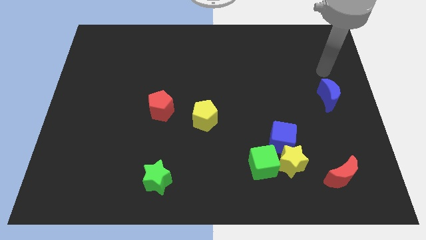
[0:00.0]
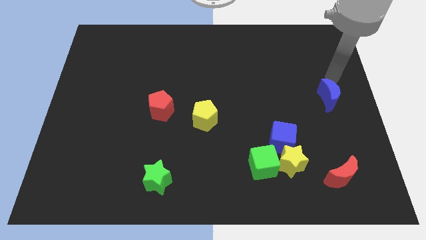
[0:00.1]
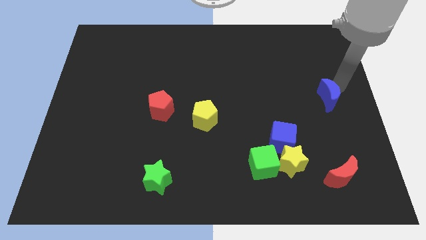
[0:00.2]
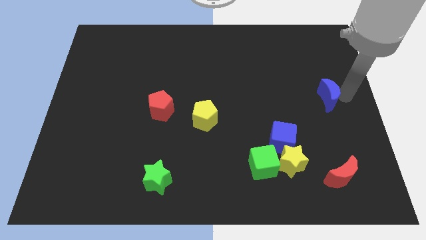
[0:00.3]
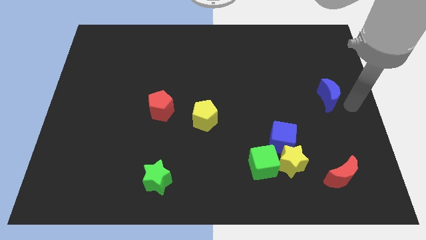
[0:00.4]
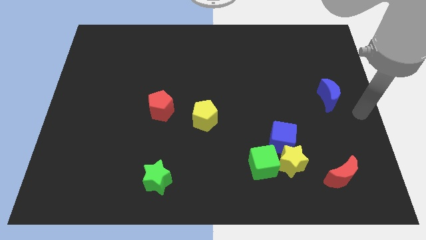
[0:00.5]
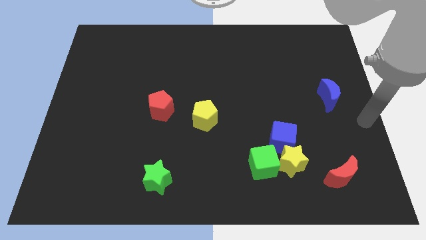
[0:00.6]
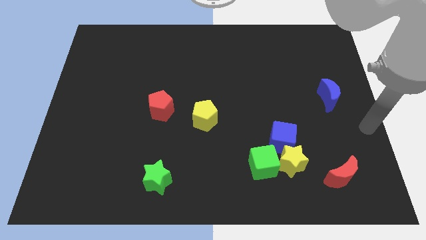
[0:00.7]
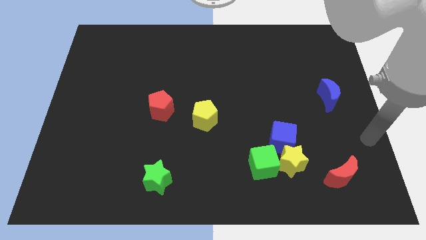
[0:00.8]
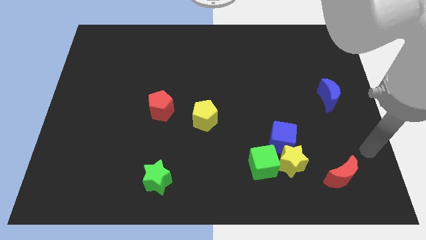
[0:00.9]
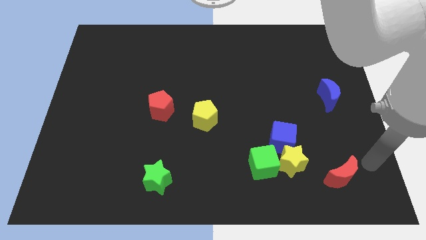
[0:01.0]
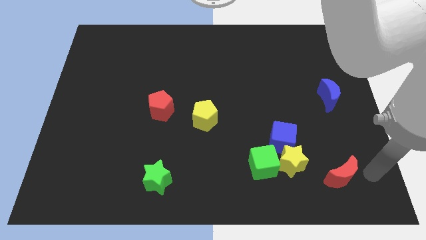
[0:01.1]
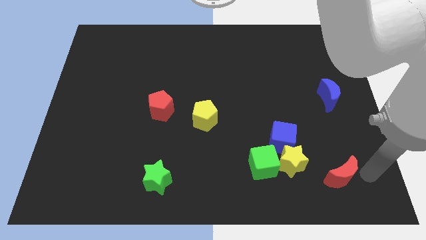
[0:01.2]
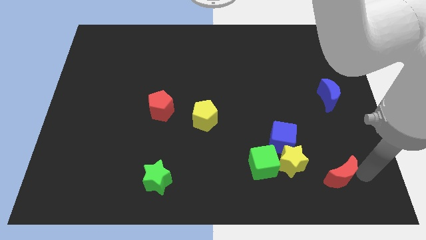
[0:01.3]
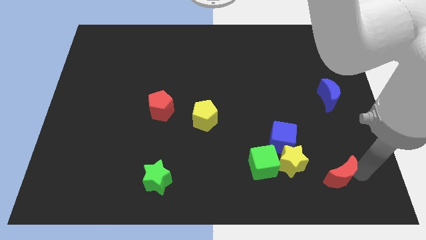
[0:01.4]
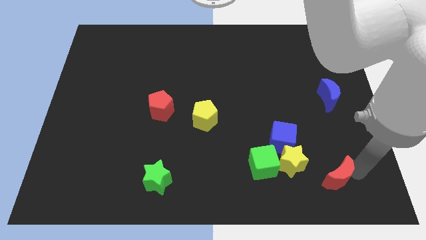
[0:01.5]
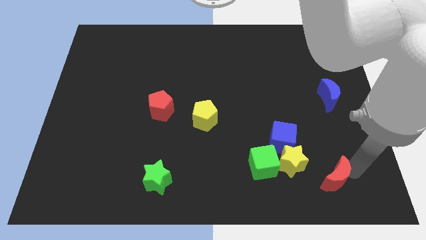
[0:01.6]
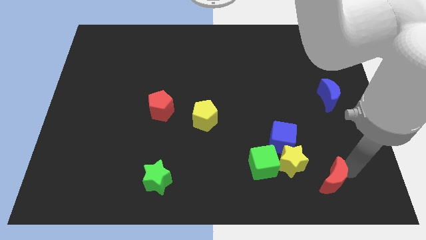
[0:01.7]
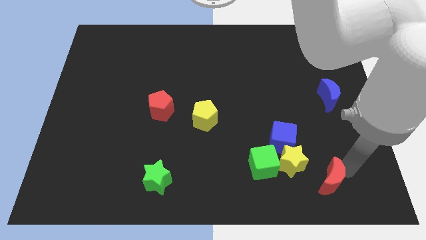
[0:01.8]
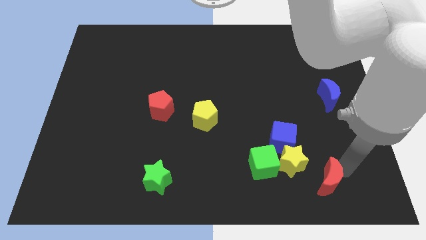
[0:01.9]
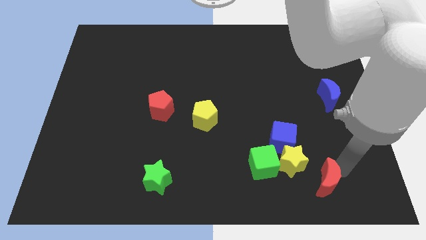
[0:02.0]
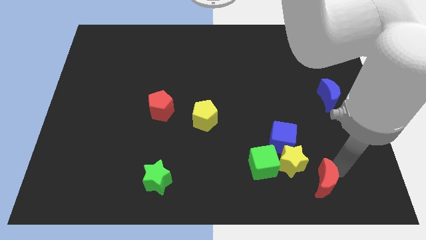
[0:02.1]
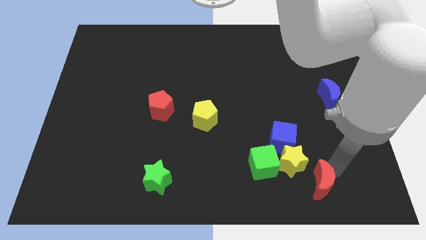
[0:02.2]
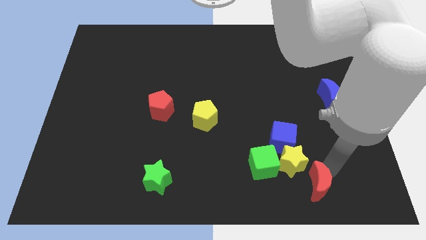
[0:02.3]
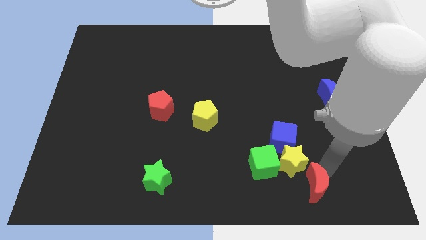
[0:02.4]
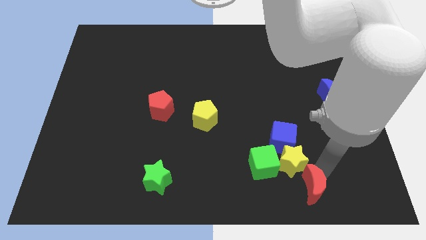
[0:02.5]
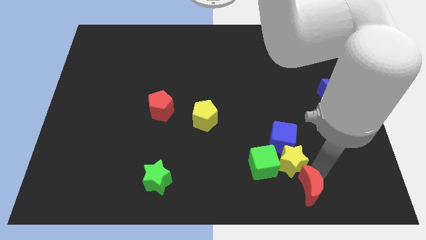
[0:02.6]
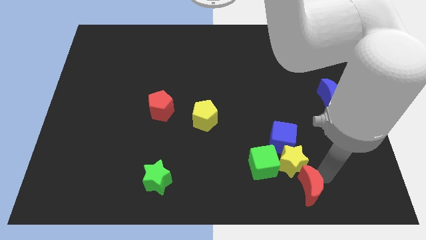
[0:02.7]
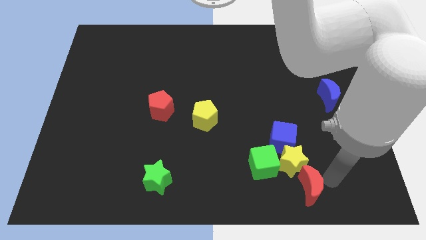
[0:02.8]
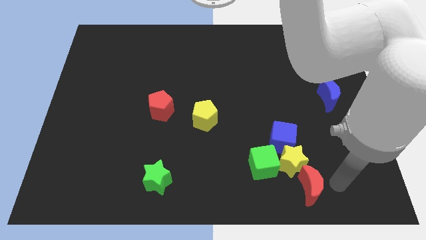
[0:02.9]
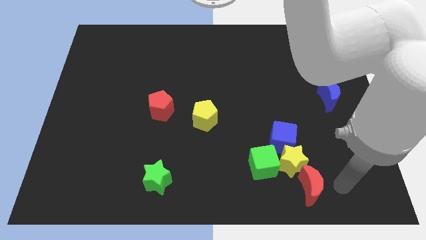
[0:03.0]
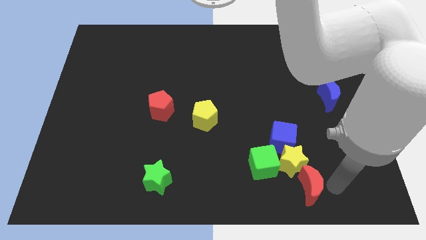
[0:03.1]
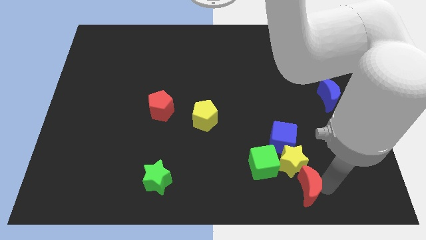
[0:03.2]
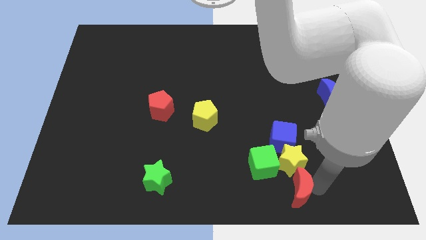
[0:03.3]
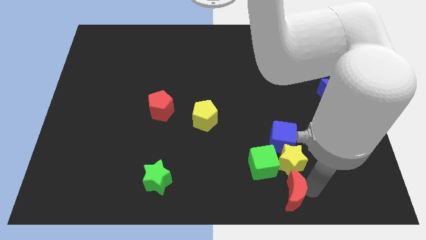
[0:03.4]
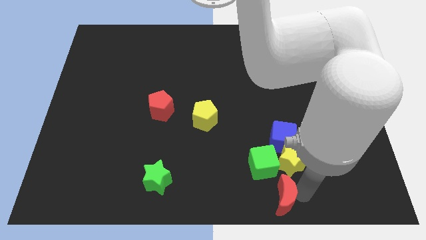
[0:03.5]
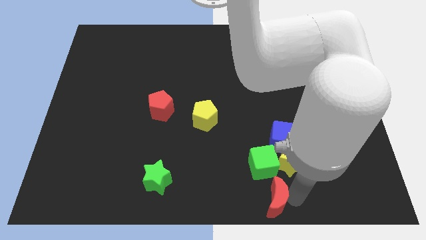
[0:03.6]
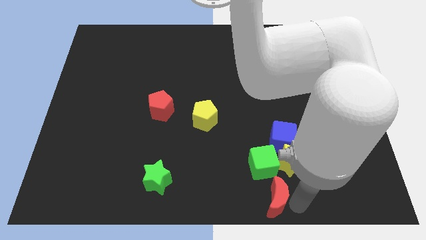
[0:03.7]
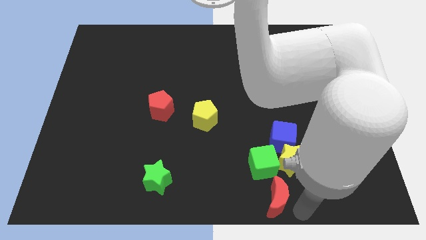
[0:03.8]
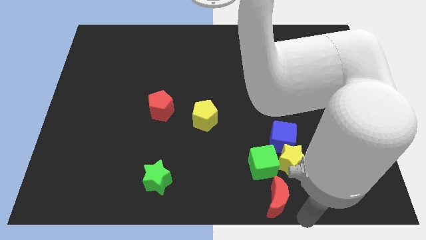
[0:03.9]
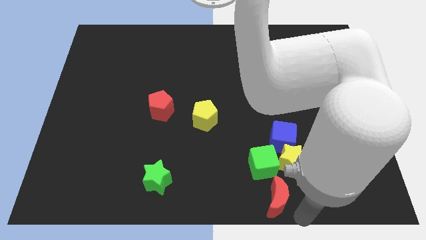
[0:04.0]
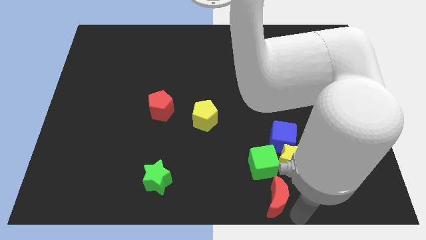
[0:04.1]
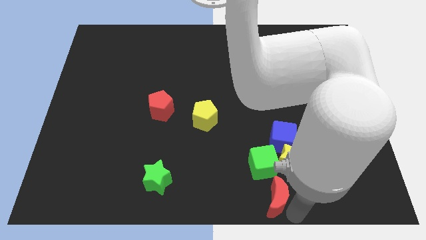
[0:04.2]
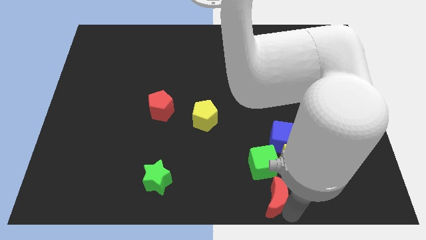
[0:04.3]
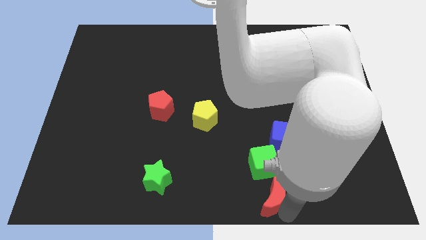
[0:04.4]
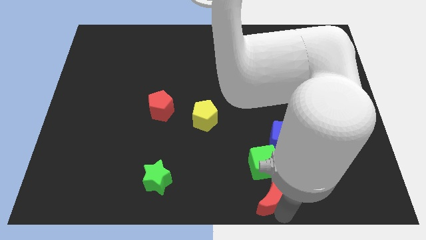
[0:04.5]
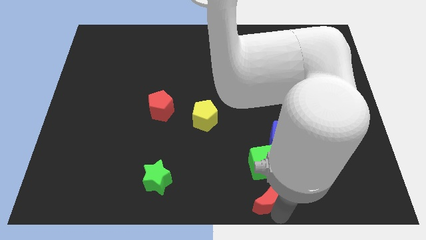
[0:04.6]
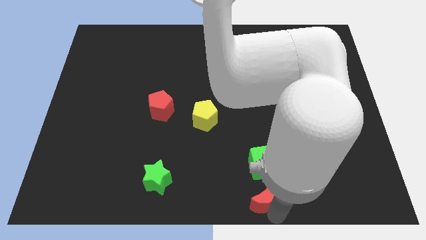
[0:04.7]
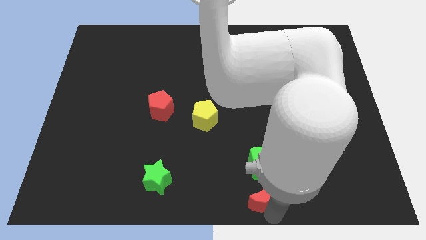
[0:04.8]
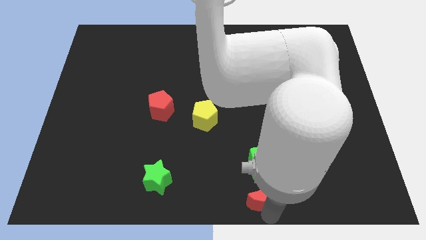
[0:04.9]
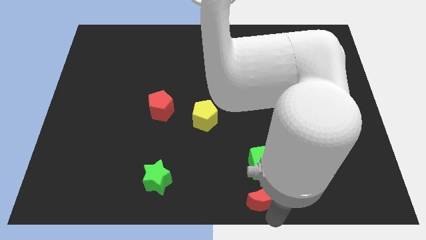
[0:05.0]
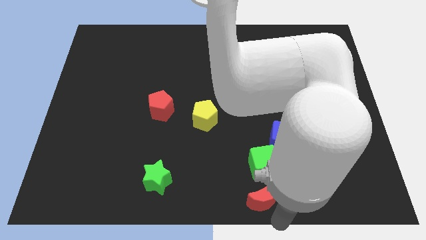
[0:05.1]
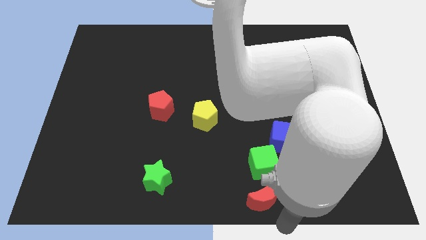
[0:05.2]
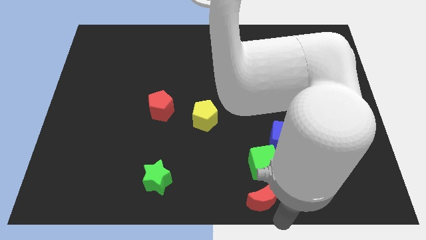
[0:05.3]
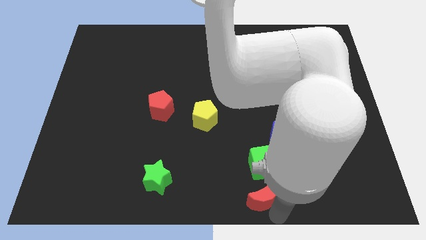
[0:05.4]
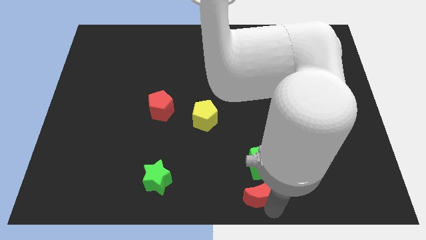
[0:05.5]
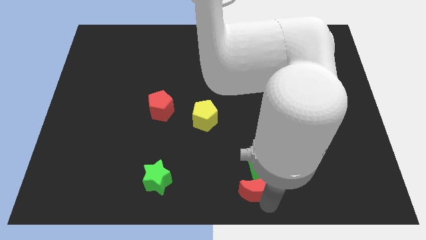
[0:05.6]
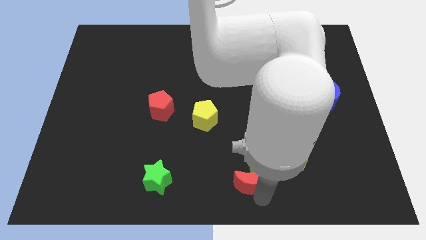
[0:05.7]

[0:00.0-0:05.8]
slide the red moon left of the yellow star

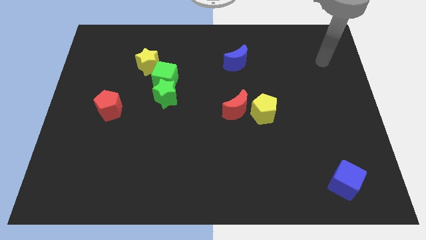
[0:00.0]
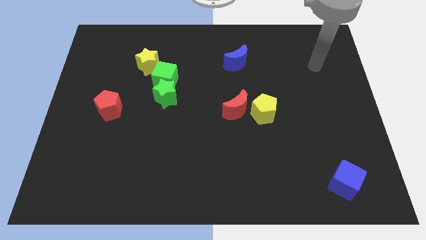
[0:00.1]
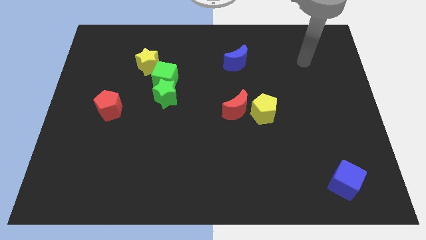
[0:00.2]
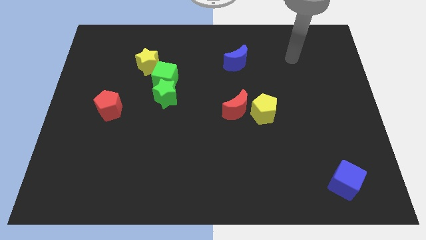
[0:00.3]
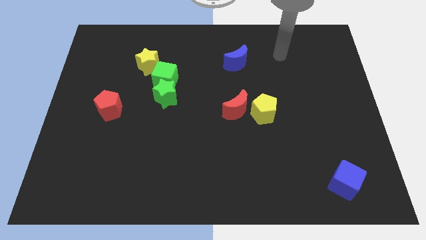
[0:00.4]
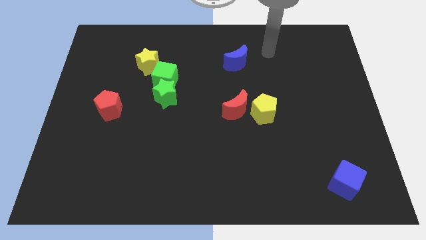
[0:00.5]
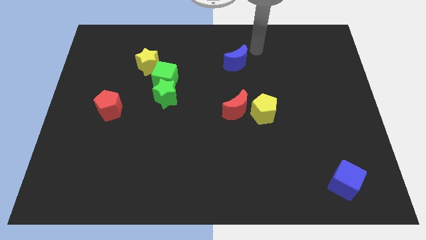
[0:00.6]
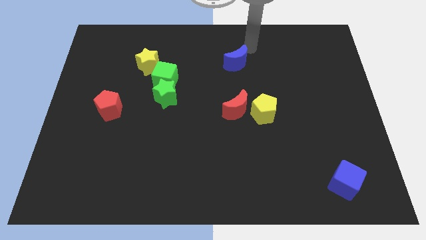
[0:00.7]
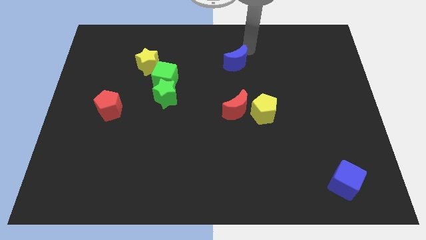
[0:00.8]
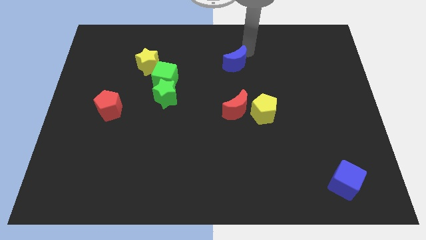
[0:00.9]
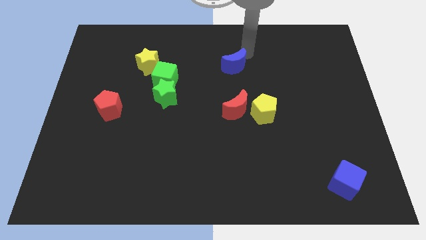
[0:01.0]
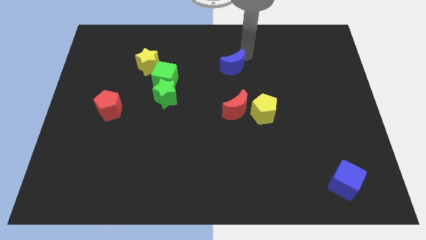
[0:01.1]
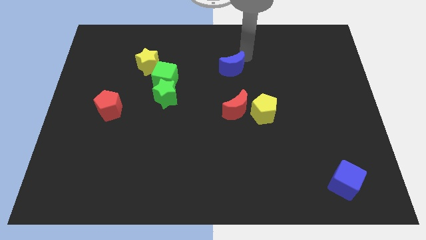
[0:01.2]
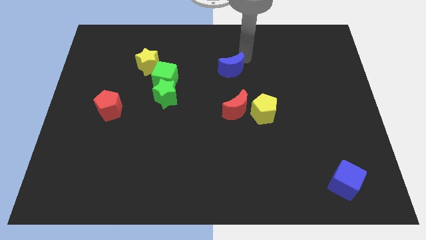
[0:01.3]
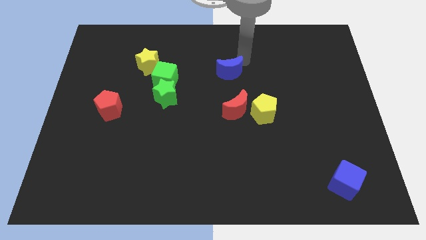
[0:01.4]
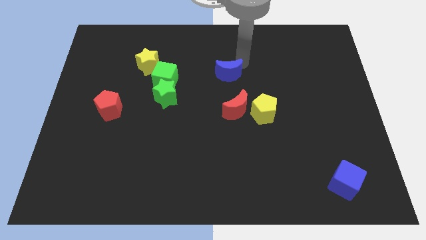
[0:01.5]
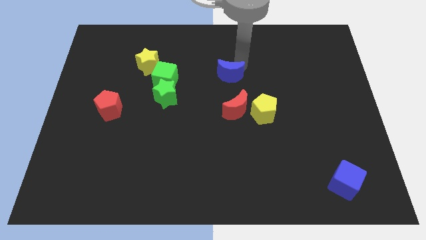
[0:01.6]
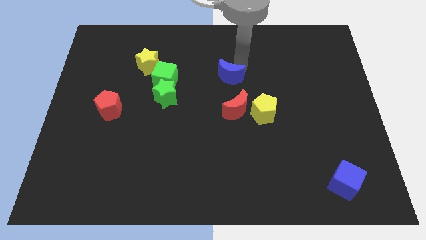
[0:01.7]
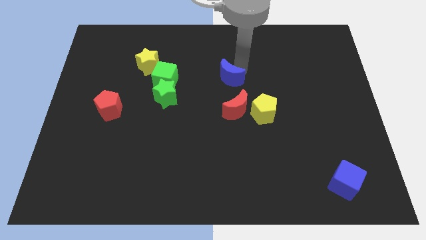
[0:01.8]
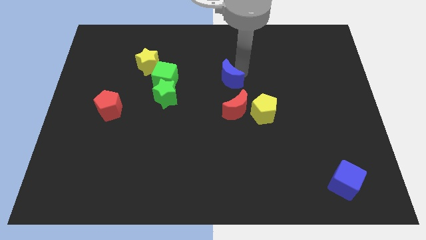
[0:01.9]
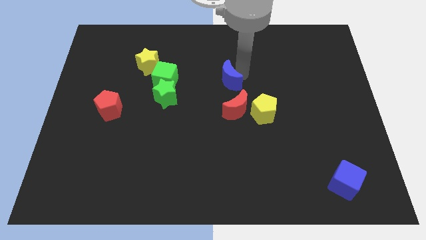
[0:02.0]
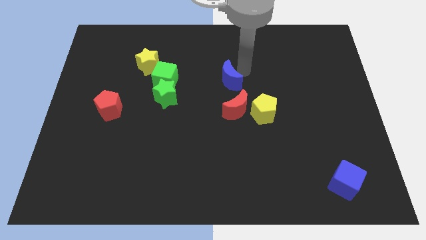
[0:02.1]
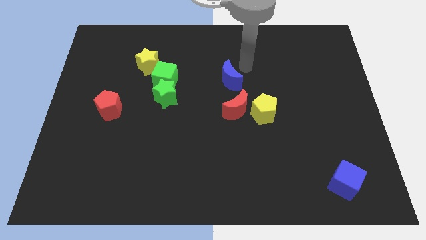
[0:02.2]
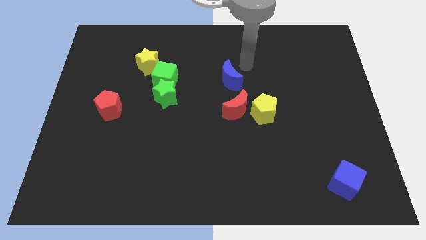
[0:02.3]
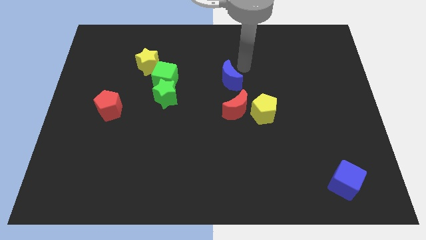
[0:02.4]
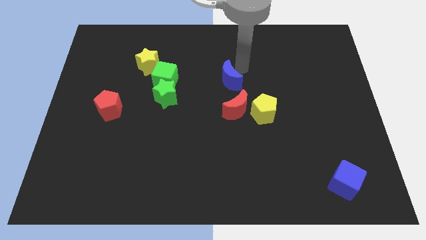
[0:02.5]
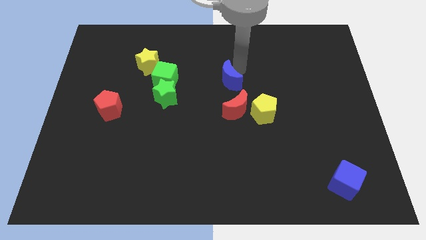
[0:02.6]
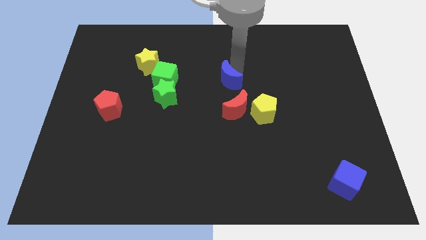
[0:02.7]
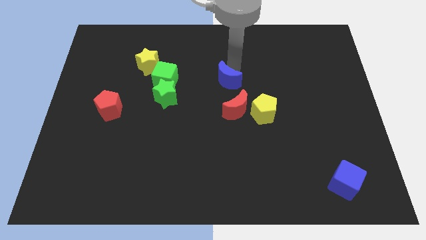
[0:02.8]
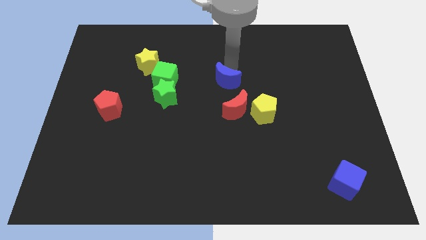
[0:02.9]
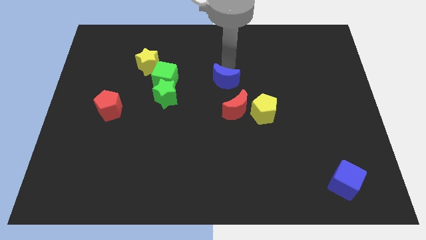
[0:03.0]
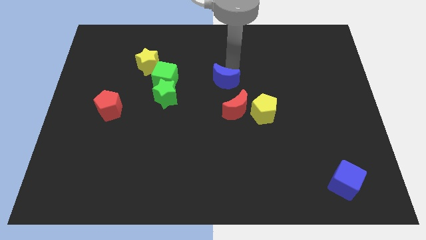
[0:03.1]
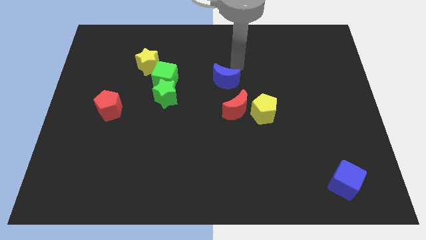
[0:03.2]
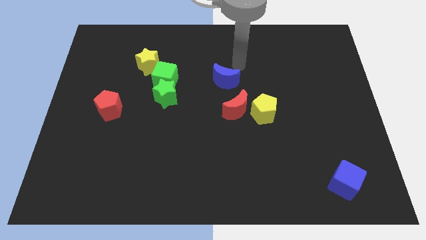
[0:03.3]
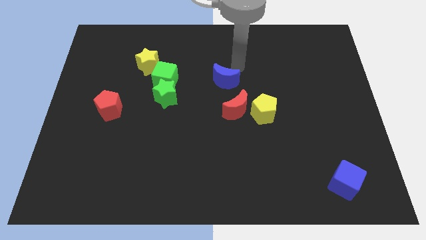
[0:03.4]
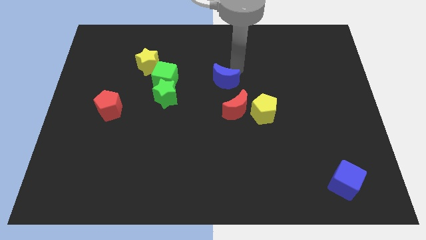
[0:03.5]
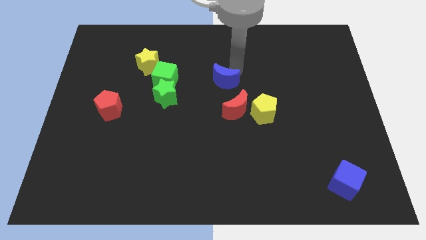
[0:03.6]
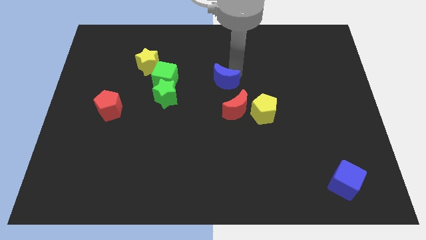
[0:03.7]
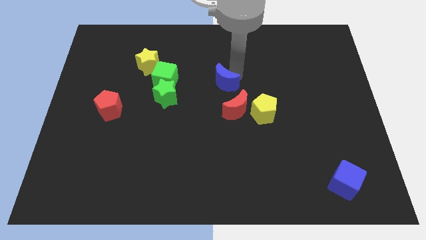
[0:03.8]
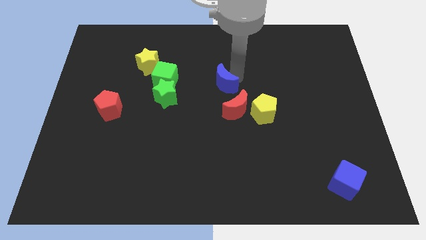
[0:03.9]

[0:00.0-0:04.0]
push the blue moon to the right of the green star
